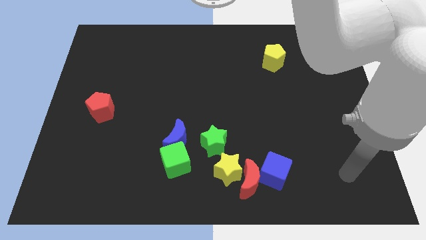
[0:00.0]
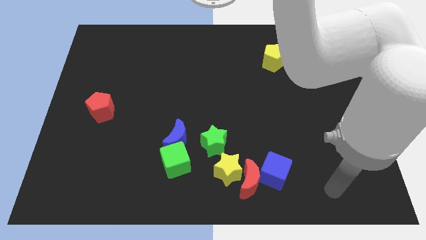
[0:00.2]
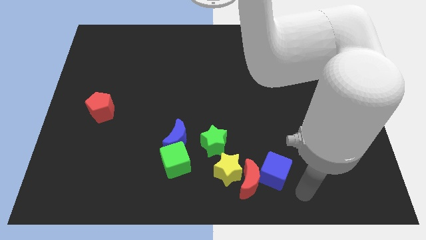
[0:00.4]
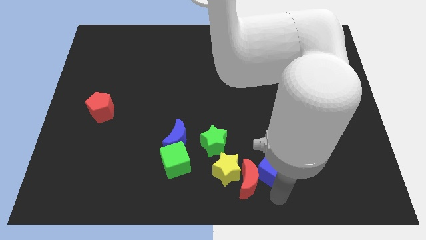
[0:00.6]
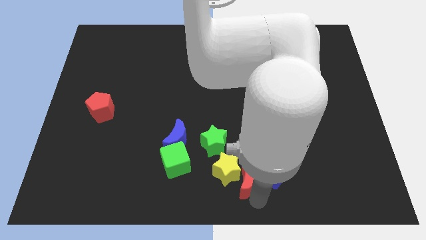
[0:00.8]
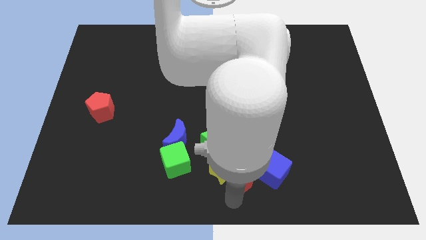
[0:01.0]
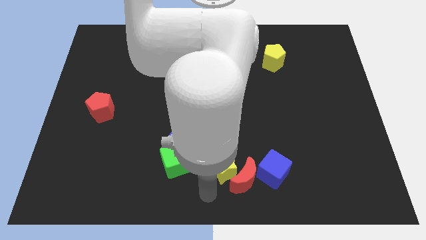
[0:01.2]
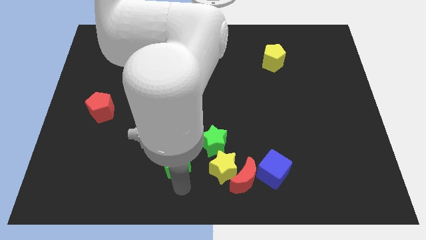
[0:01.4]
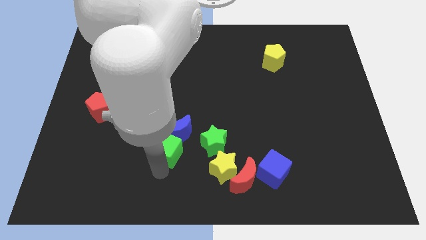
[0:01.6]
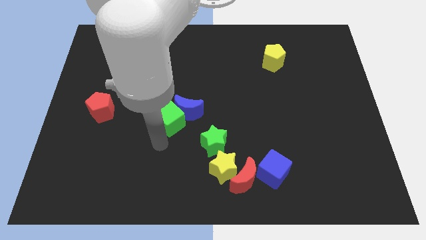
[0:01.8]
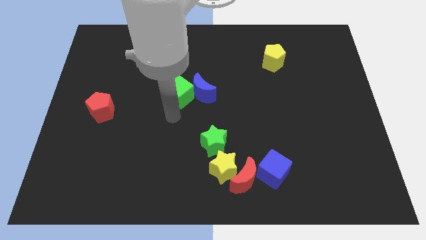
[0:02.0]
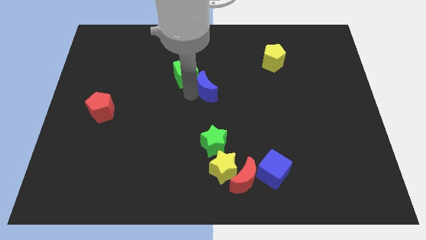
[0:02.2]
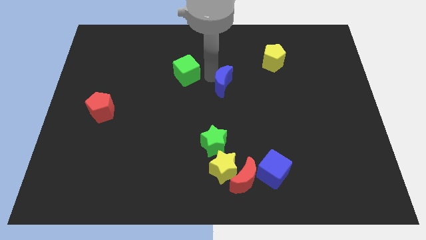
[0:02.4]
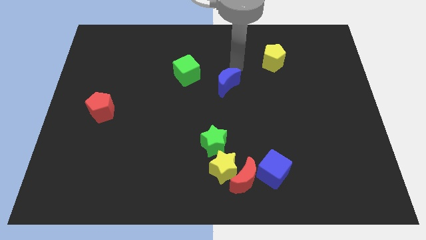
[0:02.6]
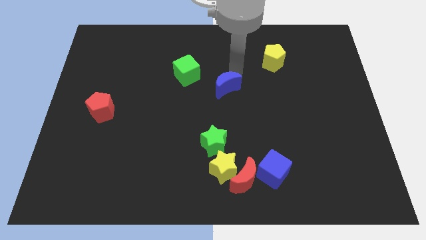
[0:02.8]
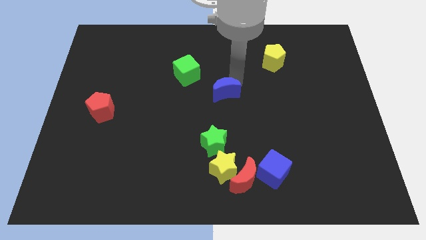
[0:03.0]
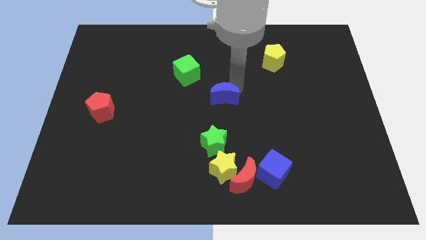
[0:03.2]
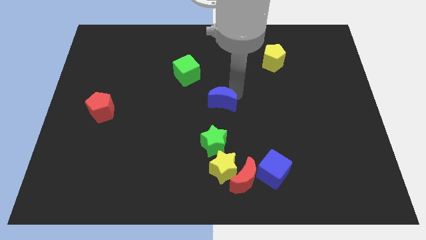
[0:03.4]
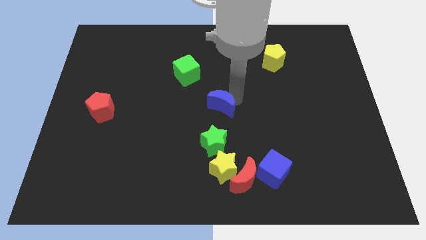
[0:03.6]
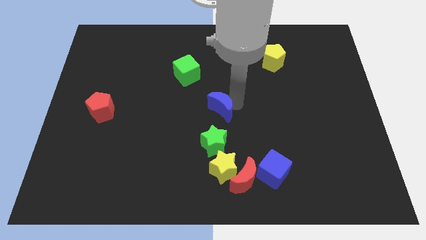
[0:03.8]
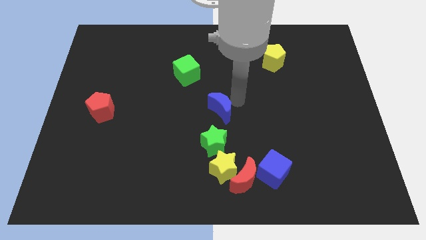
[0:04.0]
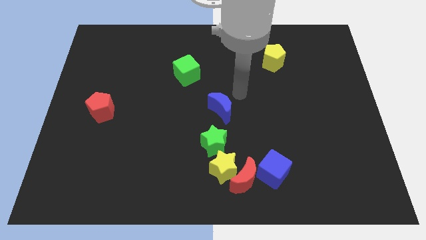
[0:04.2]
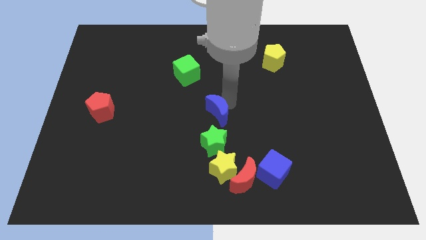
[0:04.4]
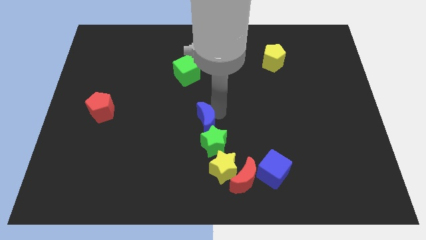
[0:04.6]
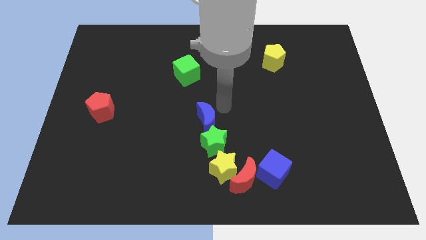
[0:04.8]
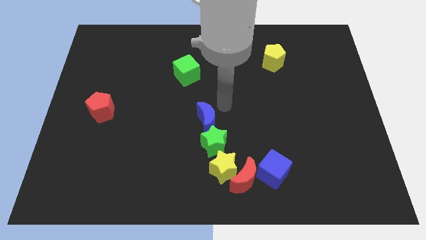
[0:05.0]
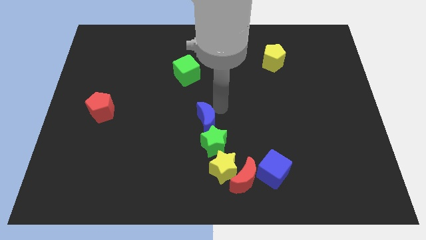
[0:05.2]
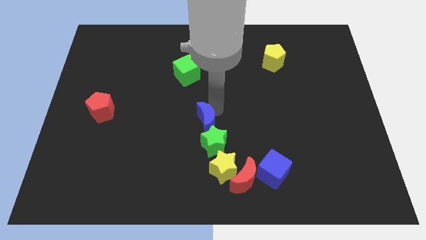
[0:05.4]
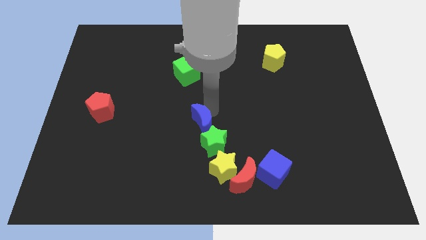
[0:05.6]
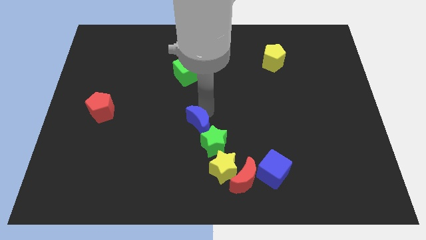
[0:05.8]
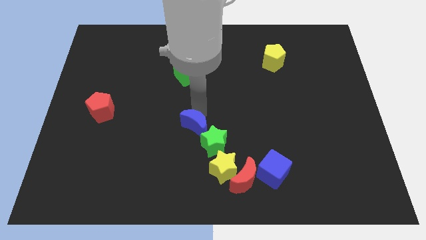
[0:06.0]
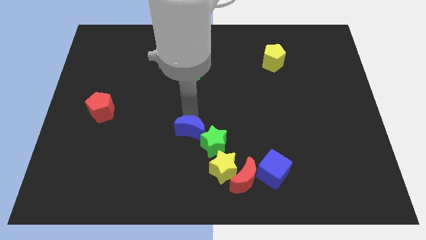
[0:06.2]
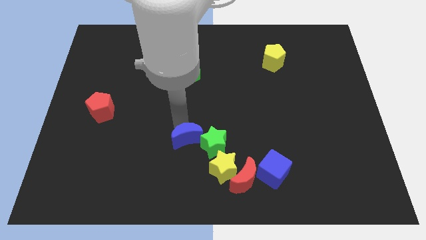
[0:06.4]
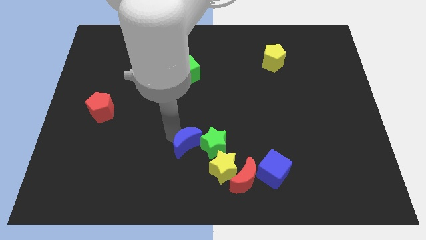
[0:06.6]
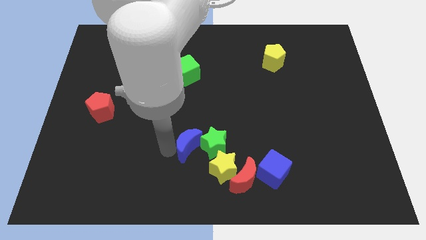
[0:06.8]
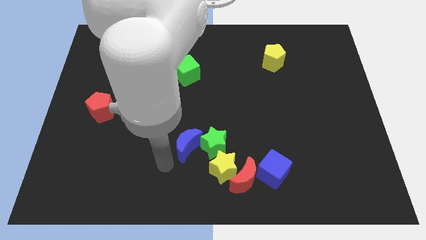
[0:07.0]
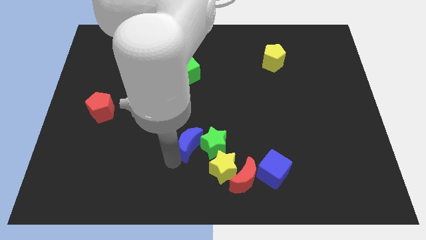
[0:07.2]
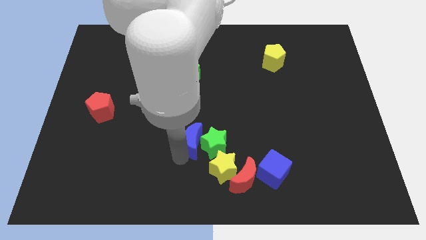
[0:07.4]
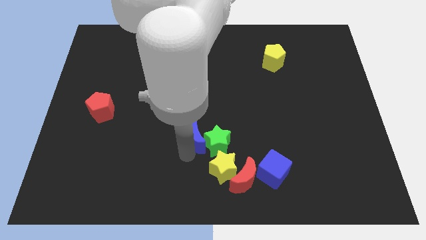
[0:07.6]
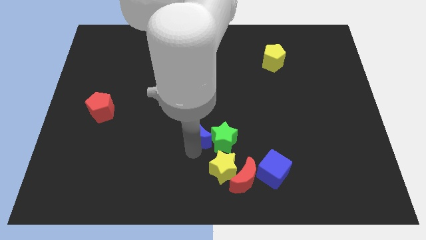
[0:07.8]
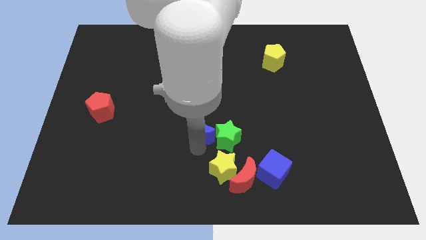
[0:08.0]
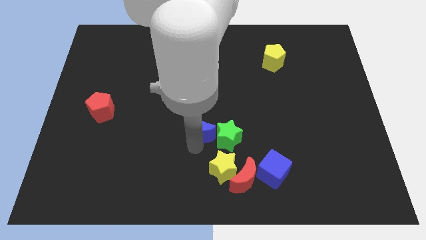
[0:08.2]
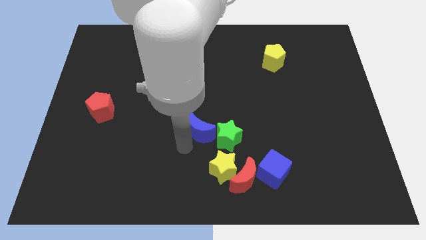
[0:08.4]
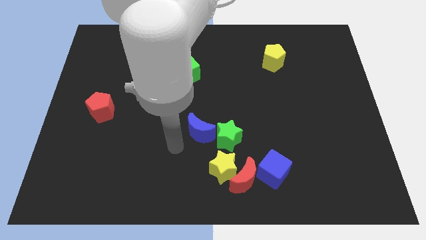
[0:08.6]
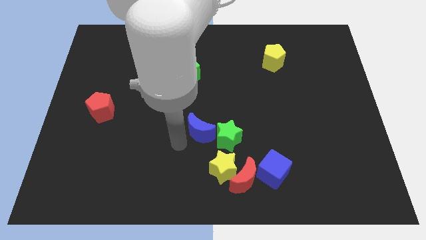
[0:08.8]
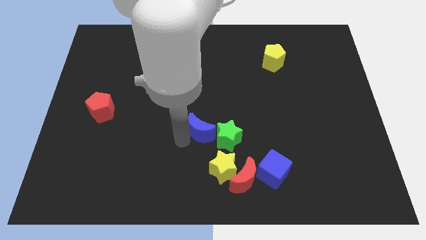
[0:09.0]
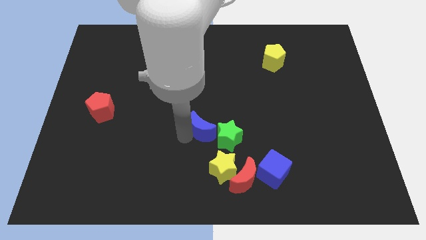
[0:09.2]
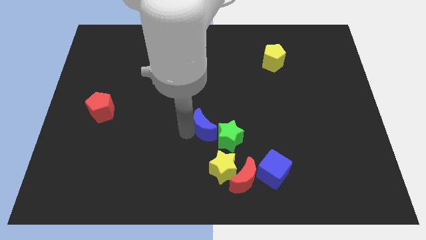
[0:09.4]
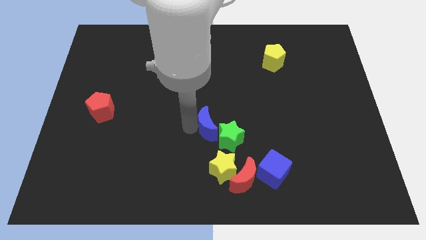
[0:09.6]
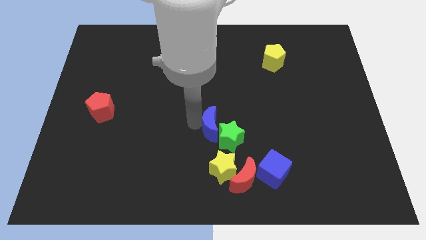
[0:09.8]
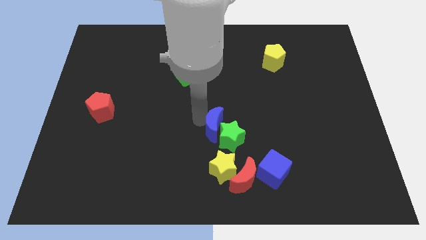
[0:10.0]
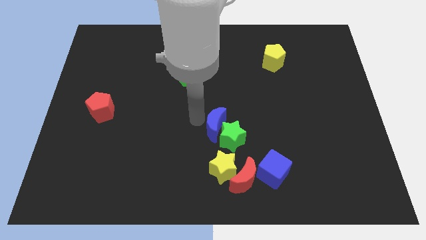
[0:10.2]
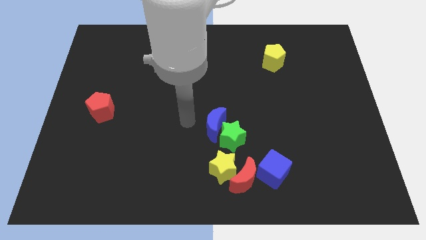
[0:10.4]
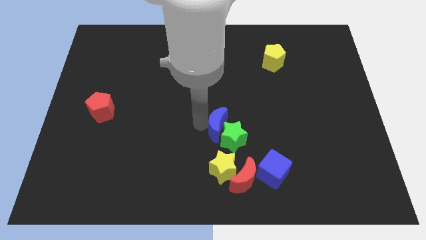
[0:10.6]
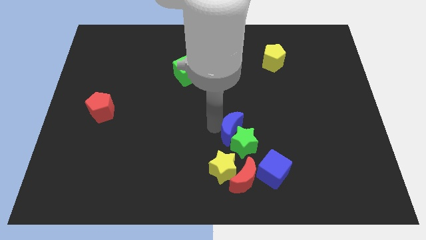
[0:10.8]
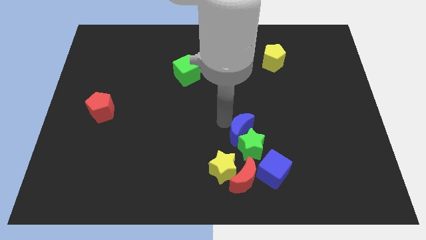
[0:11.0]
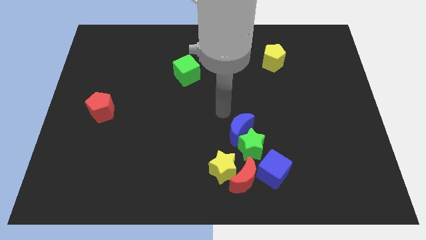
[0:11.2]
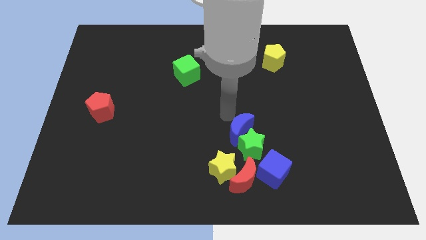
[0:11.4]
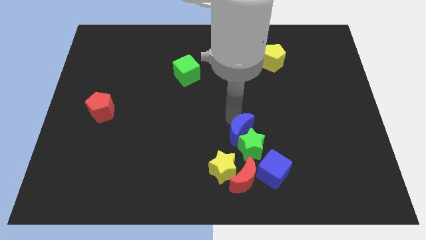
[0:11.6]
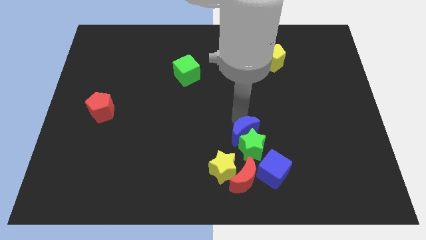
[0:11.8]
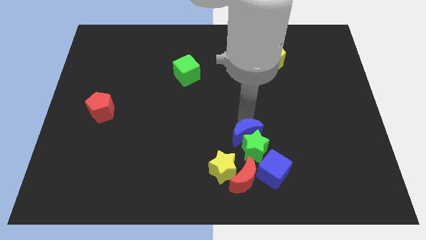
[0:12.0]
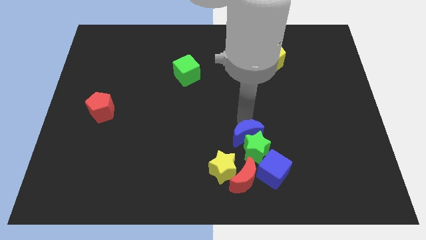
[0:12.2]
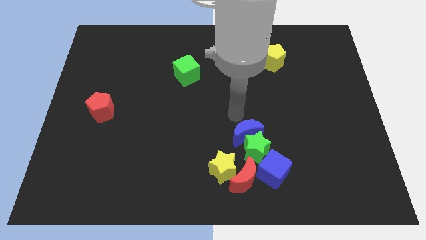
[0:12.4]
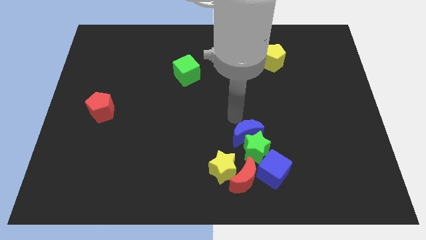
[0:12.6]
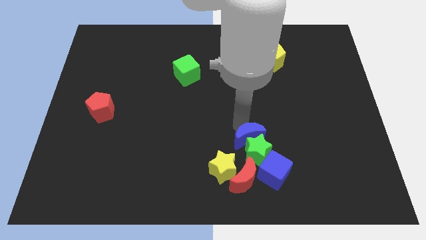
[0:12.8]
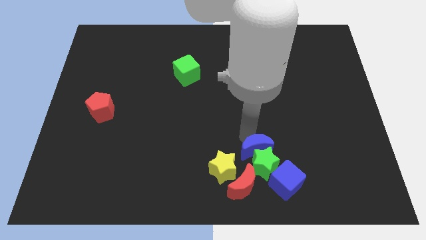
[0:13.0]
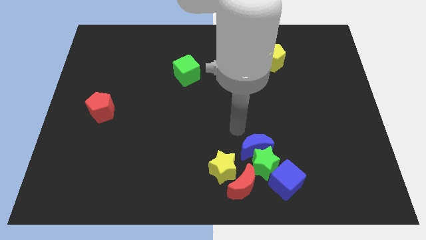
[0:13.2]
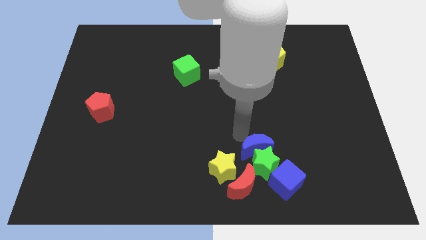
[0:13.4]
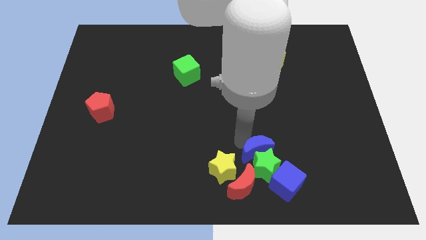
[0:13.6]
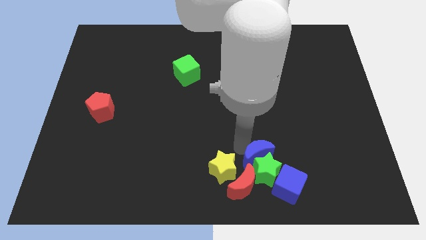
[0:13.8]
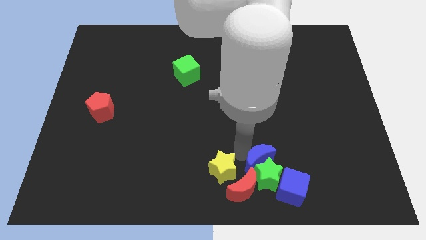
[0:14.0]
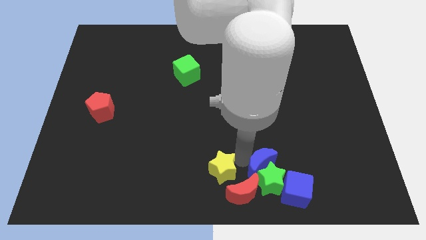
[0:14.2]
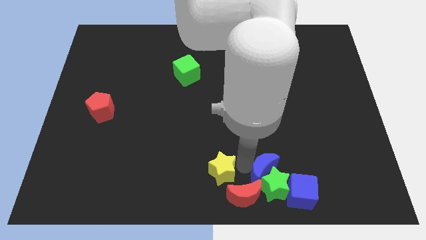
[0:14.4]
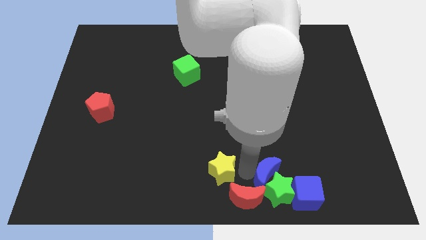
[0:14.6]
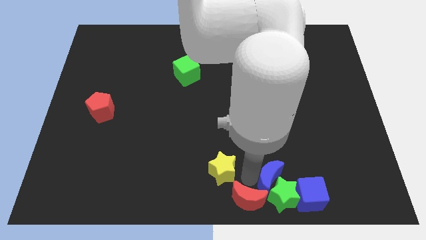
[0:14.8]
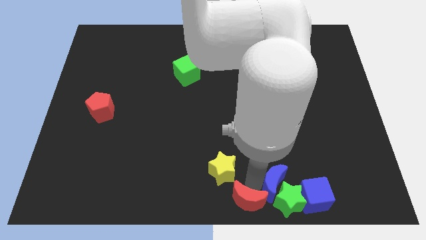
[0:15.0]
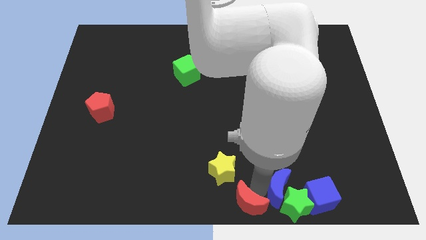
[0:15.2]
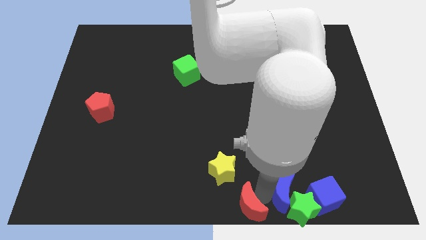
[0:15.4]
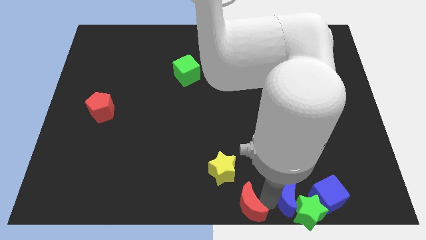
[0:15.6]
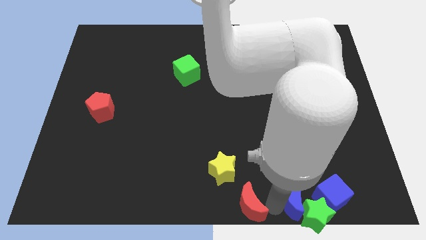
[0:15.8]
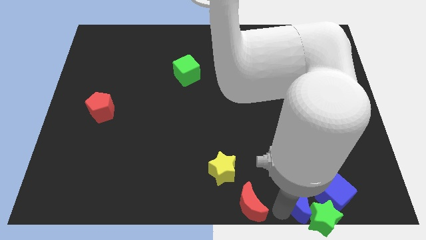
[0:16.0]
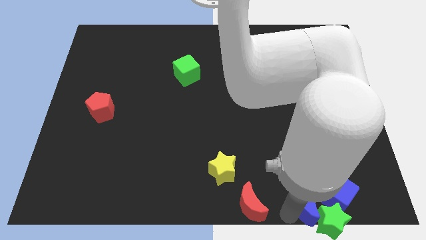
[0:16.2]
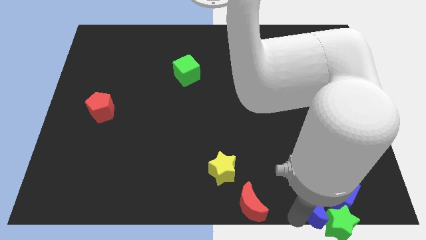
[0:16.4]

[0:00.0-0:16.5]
put the blue moon close to the blue cube
